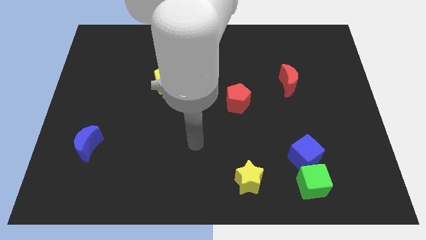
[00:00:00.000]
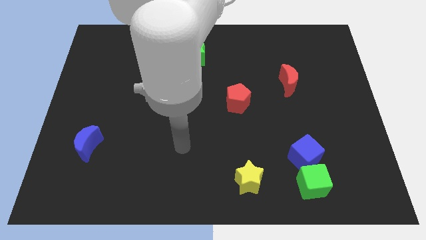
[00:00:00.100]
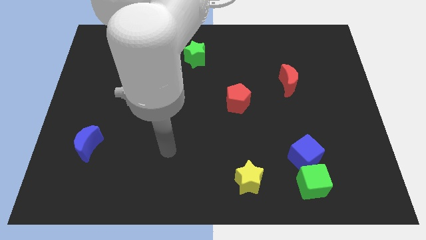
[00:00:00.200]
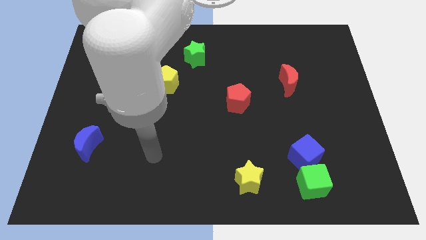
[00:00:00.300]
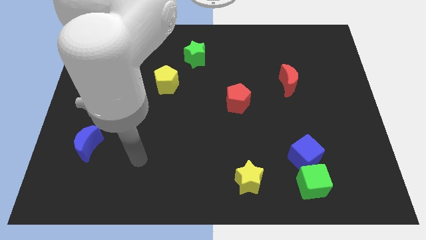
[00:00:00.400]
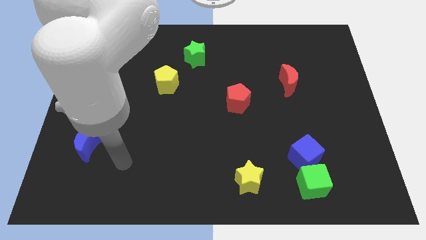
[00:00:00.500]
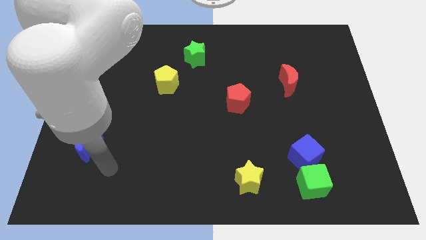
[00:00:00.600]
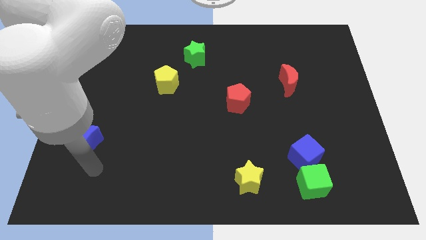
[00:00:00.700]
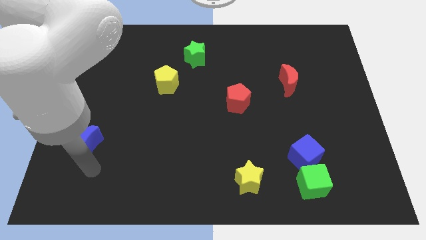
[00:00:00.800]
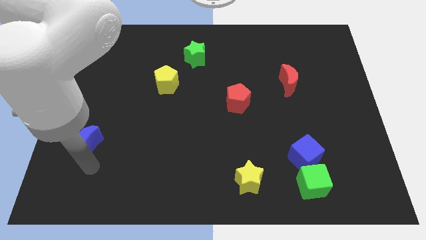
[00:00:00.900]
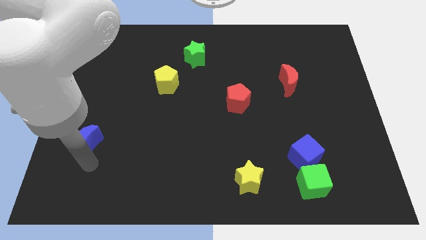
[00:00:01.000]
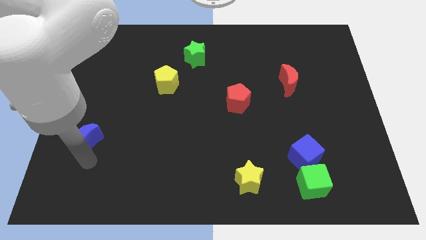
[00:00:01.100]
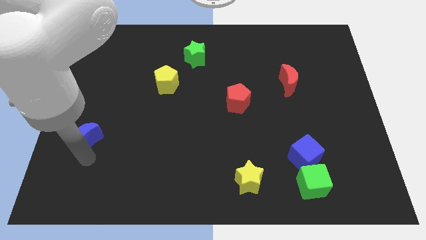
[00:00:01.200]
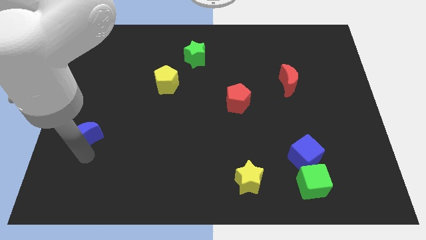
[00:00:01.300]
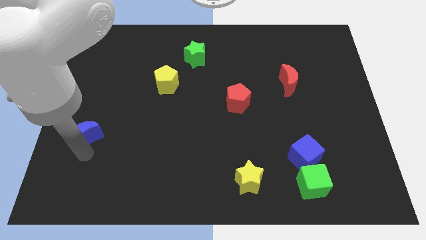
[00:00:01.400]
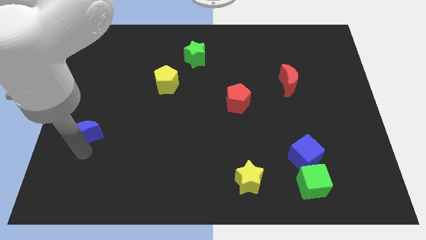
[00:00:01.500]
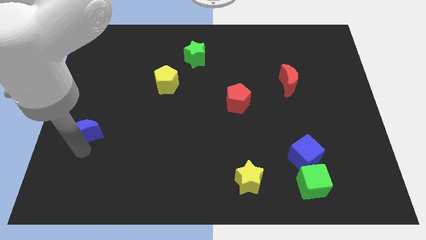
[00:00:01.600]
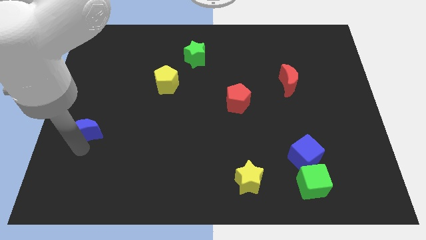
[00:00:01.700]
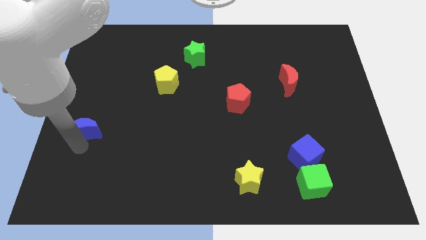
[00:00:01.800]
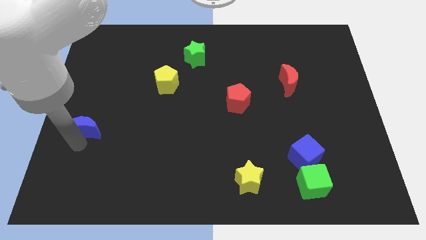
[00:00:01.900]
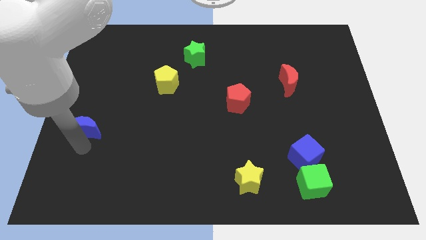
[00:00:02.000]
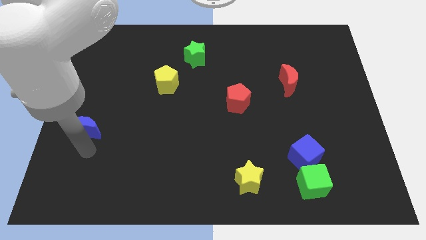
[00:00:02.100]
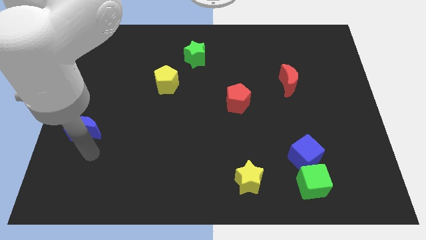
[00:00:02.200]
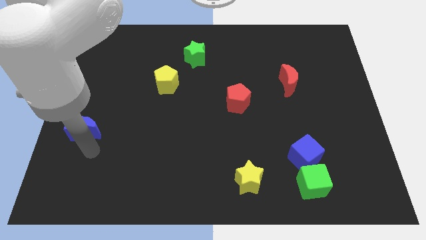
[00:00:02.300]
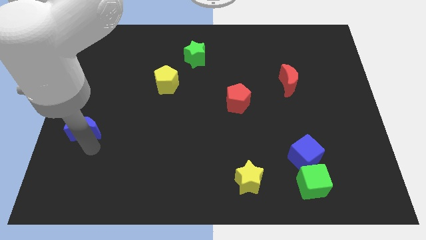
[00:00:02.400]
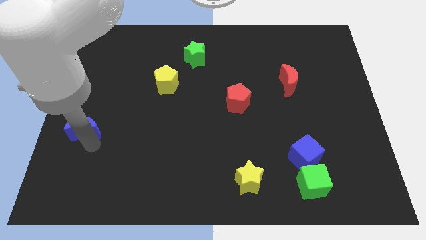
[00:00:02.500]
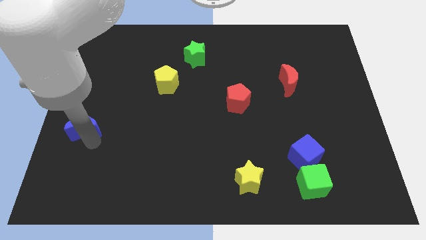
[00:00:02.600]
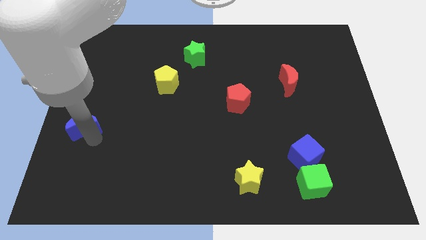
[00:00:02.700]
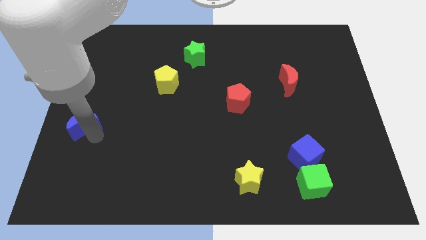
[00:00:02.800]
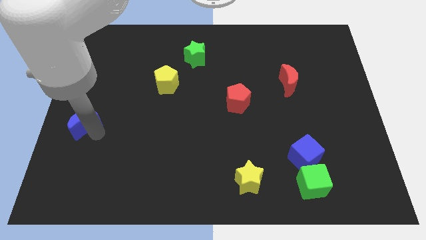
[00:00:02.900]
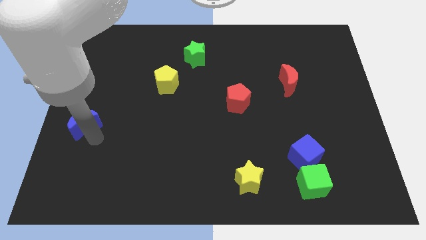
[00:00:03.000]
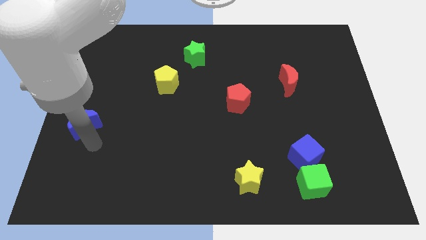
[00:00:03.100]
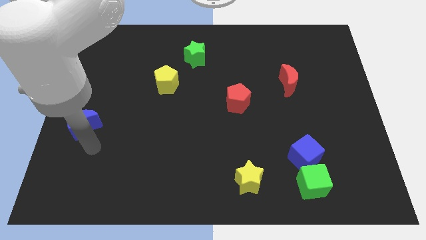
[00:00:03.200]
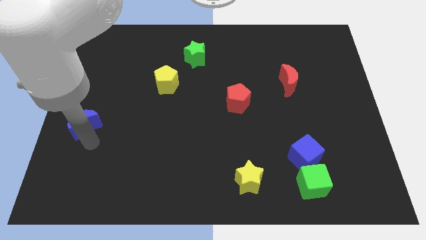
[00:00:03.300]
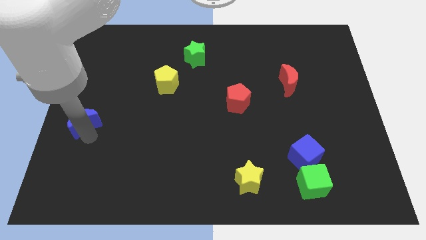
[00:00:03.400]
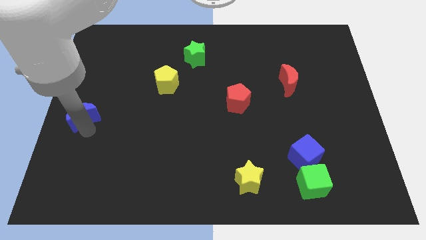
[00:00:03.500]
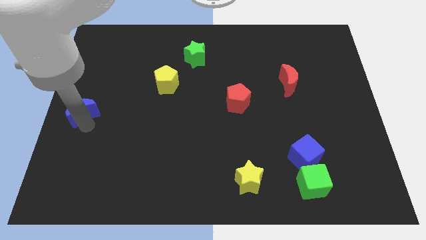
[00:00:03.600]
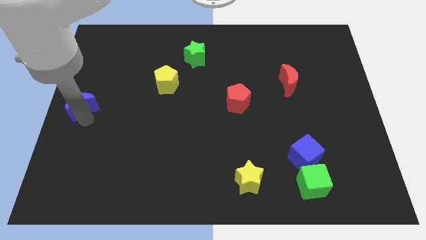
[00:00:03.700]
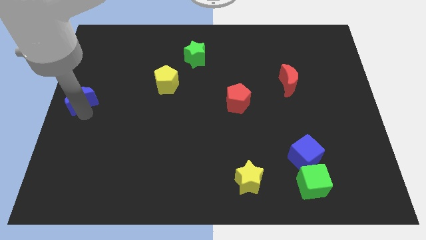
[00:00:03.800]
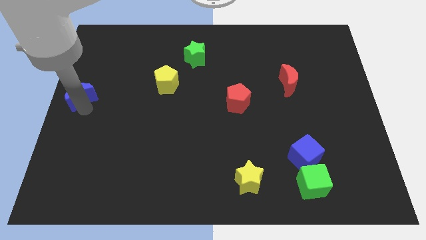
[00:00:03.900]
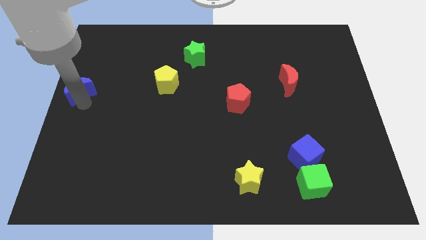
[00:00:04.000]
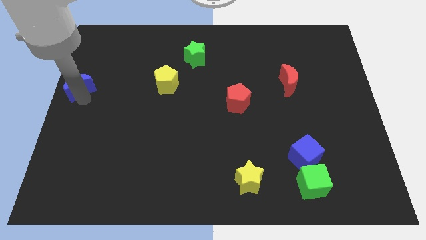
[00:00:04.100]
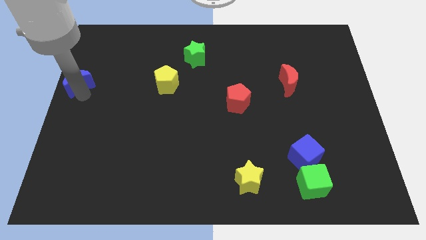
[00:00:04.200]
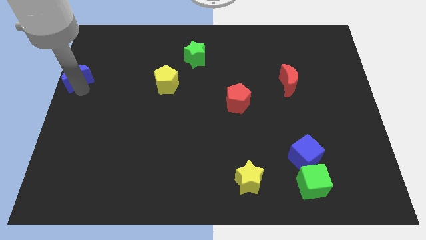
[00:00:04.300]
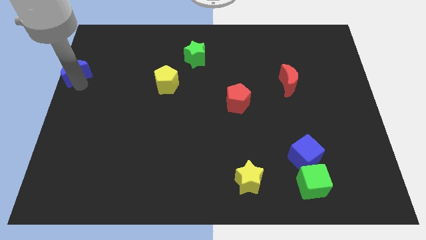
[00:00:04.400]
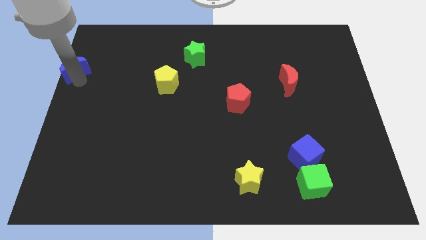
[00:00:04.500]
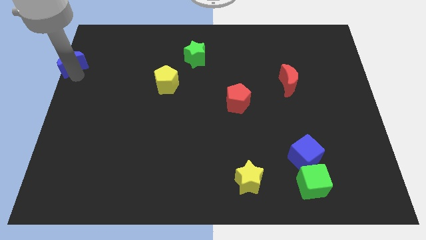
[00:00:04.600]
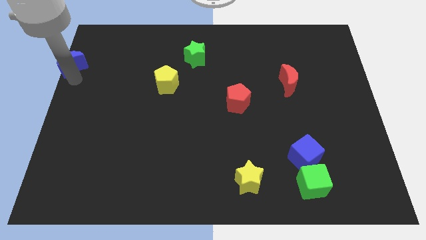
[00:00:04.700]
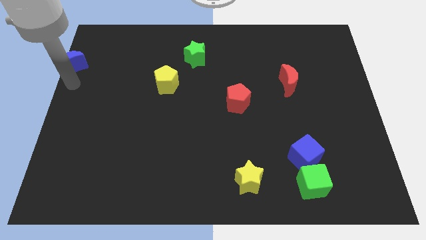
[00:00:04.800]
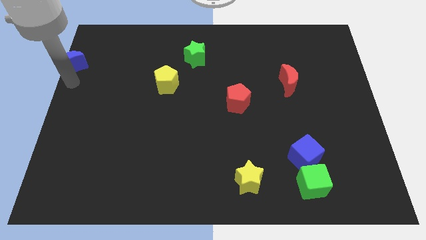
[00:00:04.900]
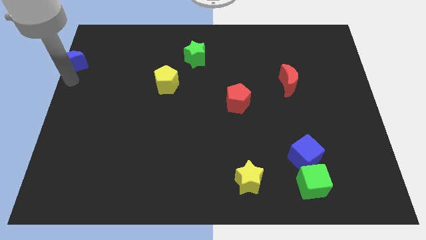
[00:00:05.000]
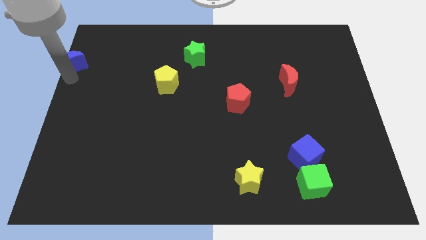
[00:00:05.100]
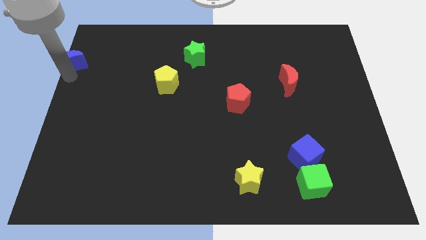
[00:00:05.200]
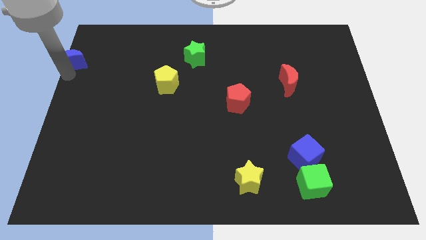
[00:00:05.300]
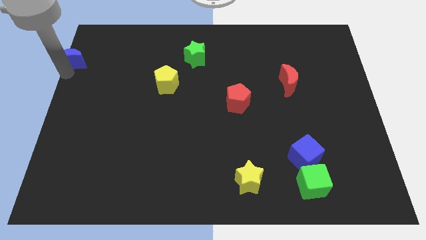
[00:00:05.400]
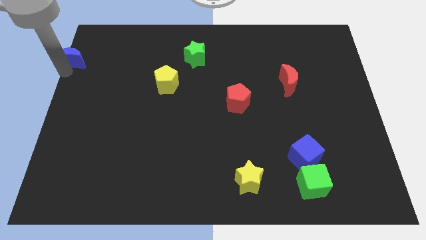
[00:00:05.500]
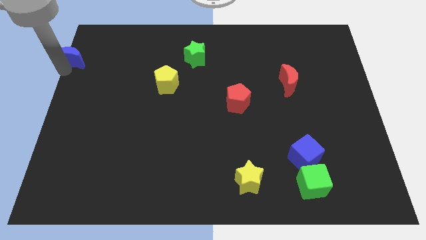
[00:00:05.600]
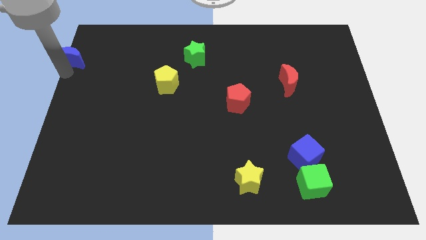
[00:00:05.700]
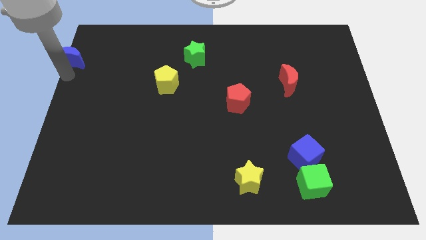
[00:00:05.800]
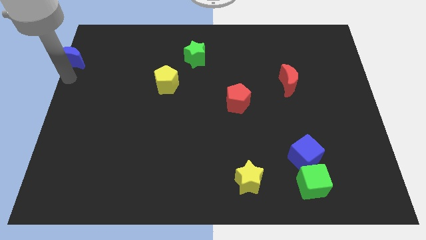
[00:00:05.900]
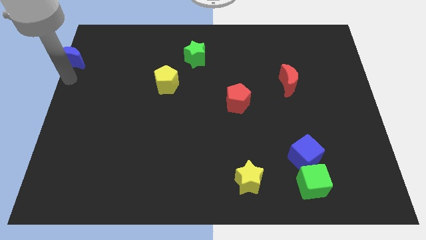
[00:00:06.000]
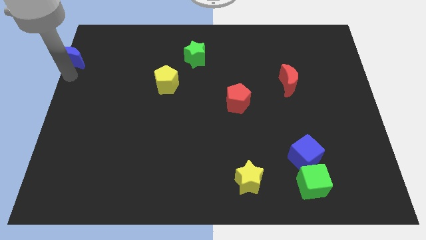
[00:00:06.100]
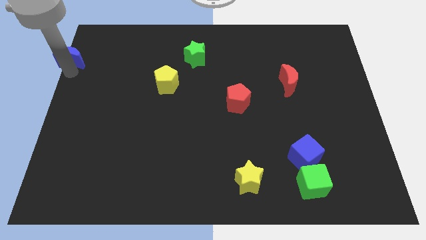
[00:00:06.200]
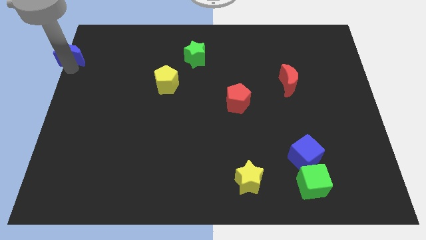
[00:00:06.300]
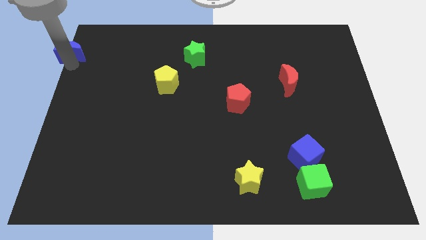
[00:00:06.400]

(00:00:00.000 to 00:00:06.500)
slide the blue moon to the top left of the board
